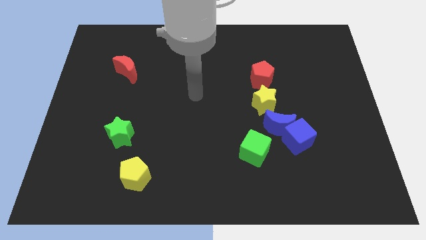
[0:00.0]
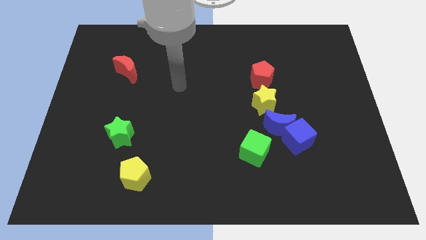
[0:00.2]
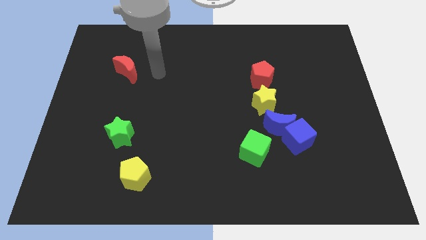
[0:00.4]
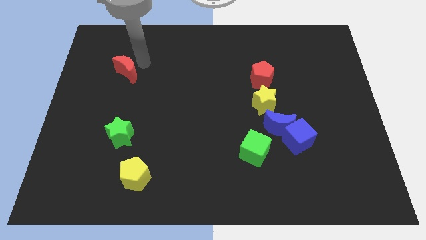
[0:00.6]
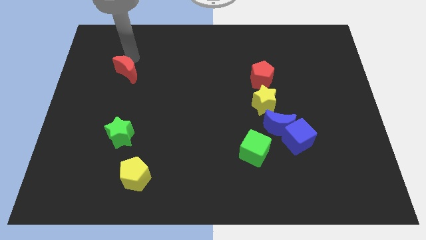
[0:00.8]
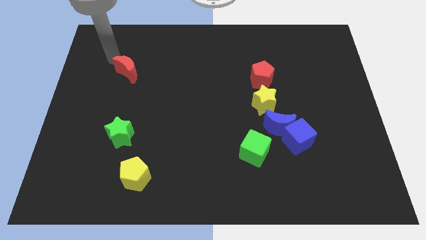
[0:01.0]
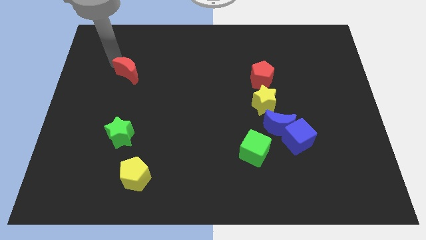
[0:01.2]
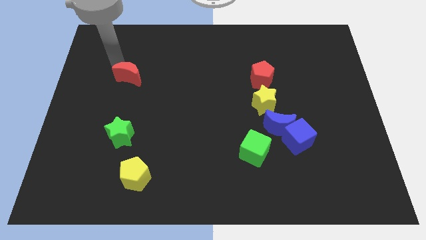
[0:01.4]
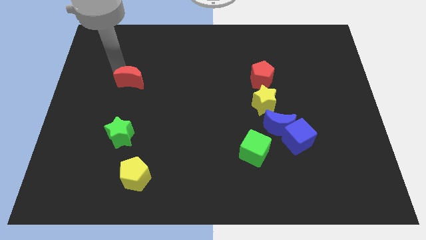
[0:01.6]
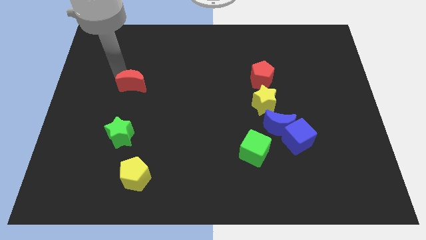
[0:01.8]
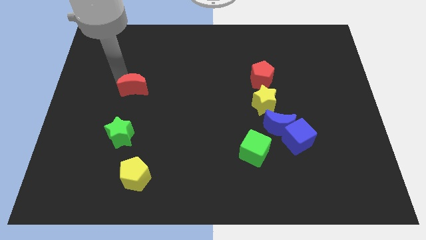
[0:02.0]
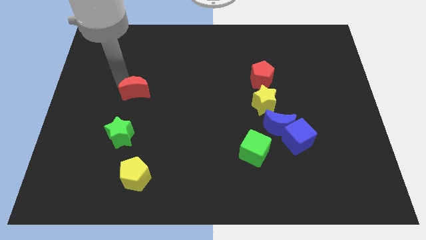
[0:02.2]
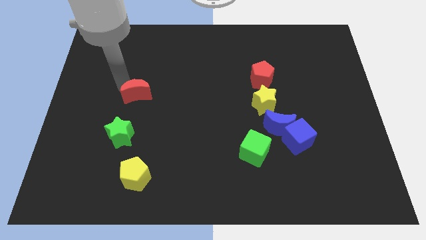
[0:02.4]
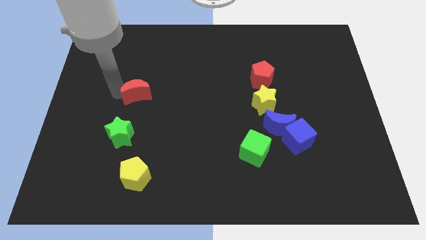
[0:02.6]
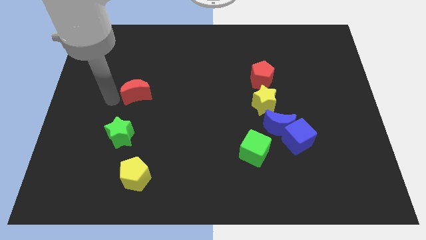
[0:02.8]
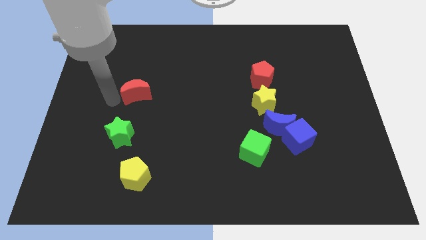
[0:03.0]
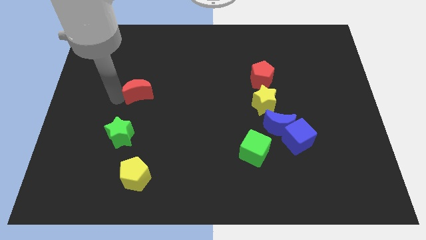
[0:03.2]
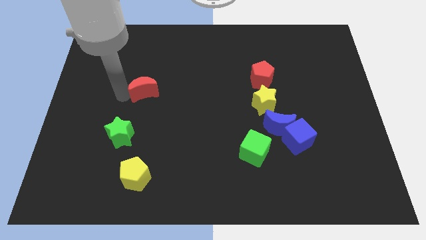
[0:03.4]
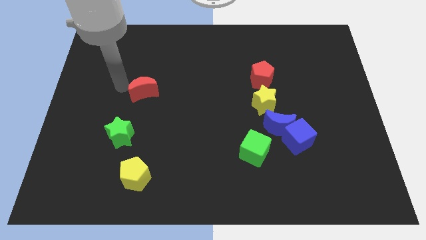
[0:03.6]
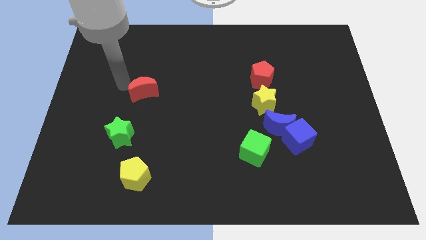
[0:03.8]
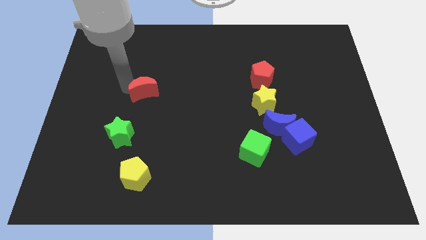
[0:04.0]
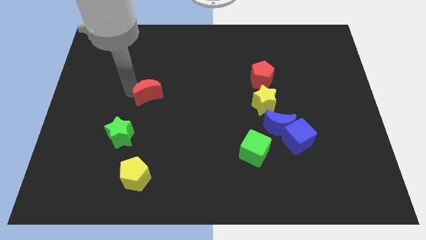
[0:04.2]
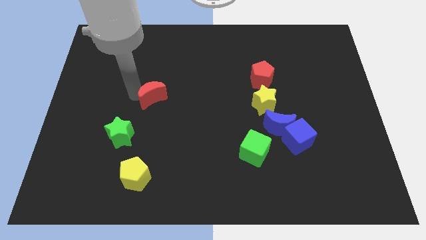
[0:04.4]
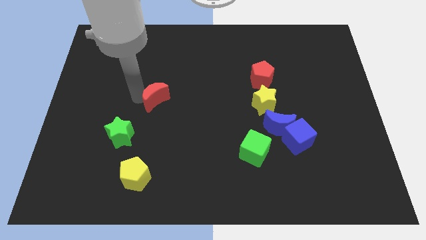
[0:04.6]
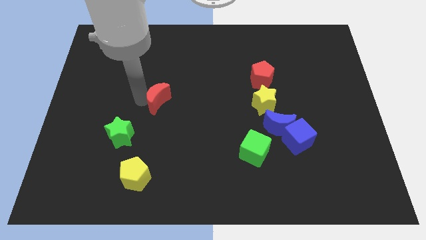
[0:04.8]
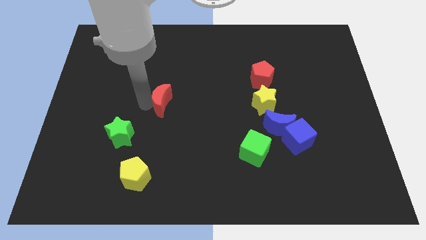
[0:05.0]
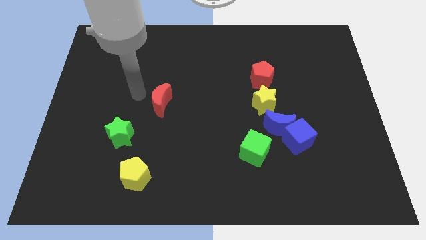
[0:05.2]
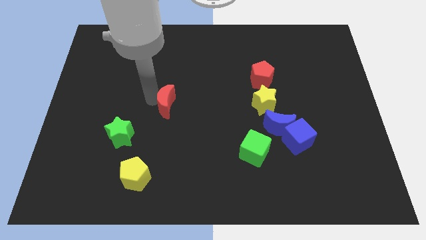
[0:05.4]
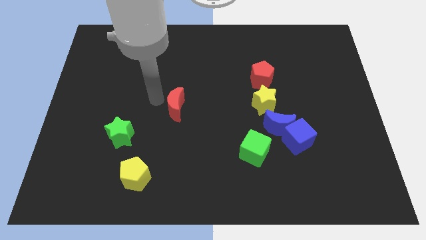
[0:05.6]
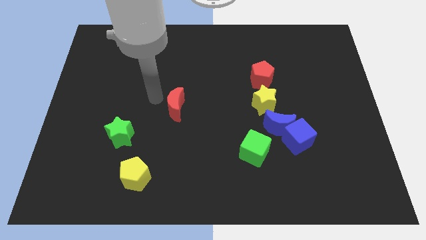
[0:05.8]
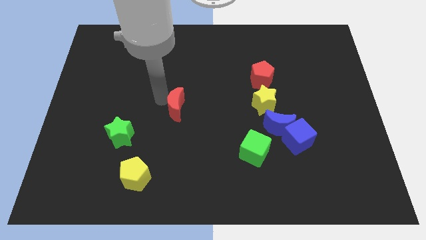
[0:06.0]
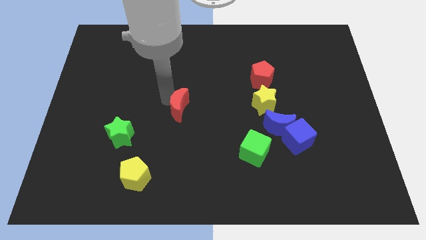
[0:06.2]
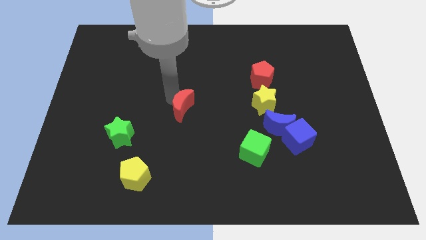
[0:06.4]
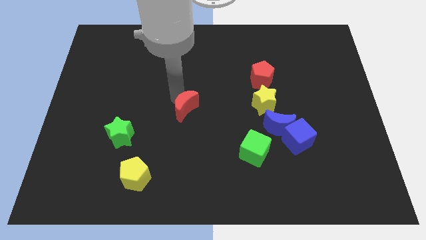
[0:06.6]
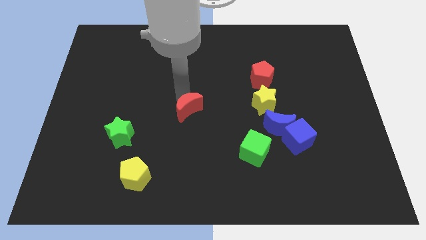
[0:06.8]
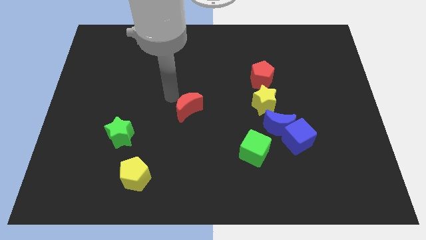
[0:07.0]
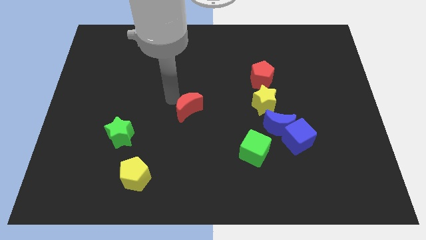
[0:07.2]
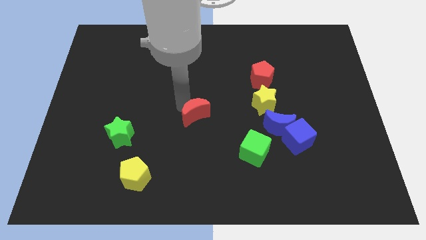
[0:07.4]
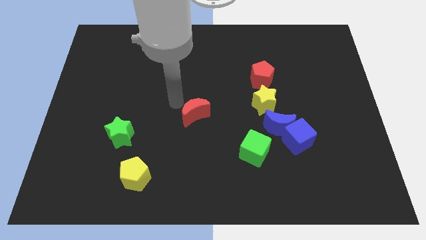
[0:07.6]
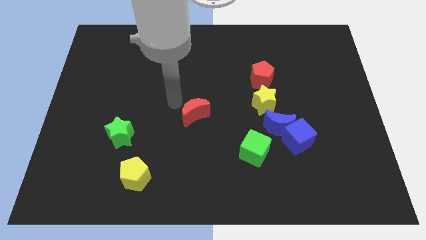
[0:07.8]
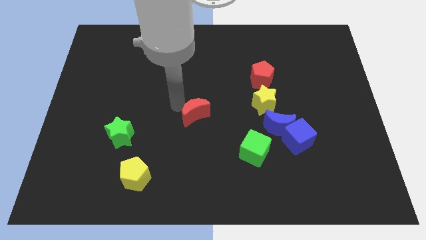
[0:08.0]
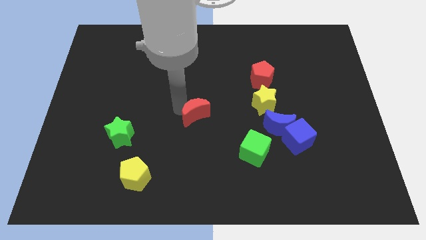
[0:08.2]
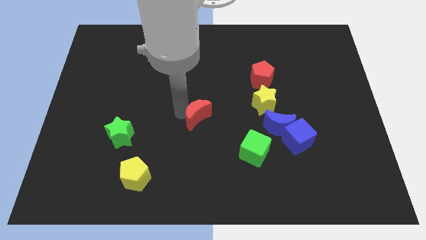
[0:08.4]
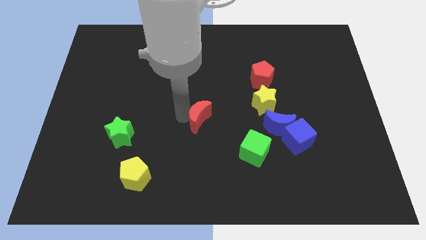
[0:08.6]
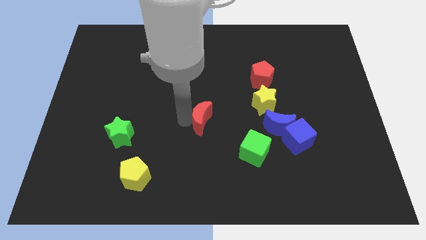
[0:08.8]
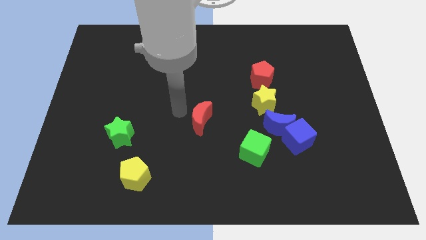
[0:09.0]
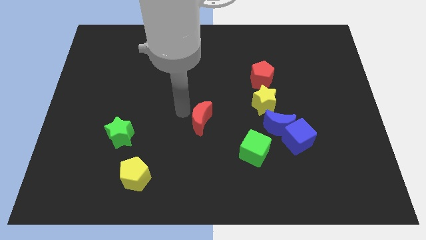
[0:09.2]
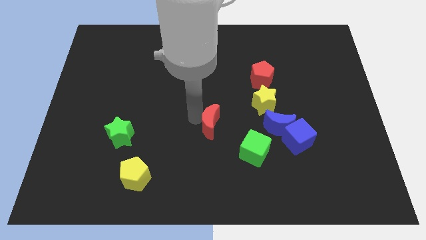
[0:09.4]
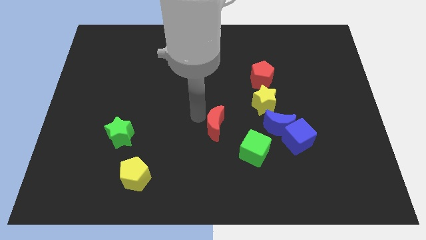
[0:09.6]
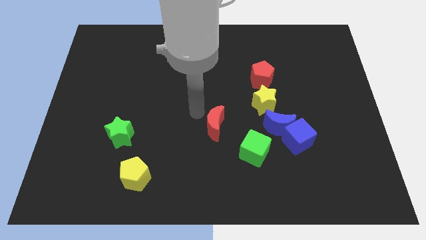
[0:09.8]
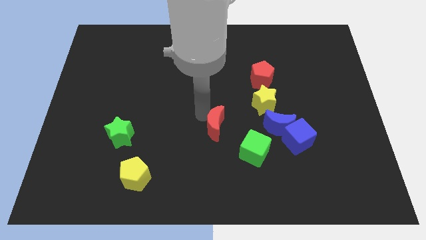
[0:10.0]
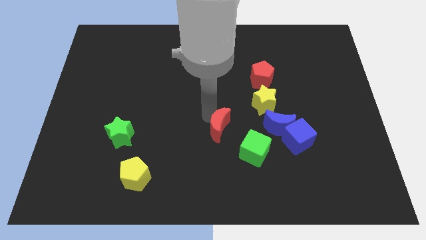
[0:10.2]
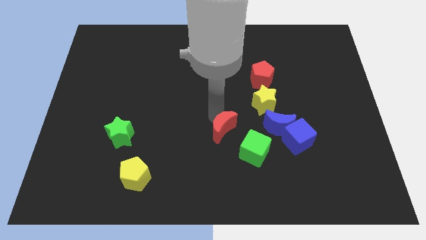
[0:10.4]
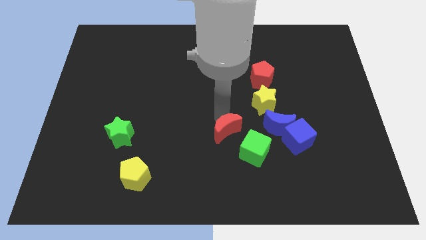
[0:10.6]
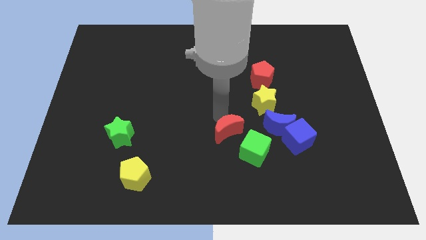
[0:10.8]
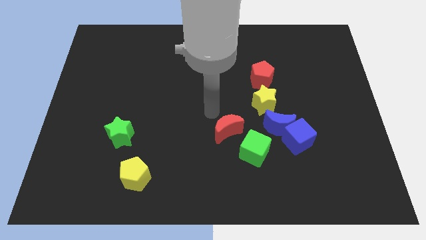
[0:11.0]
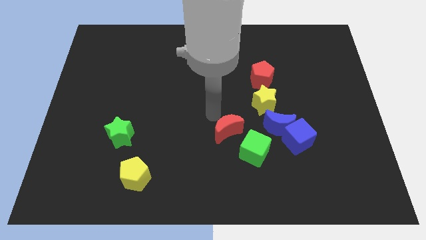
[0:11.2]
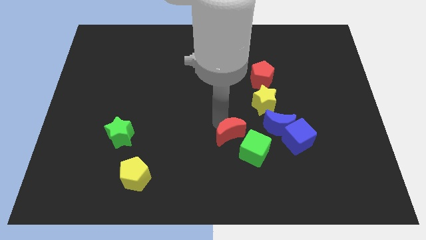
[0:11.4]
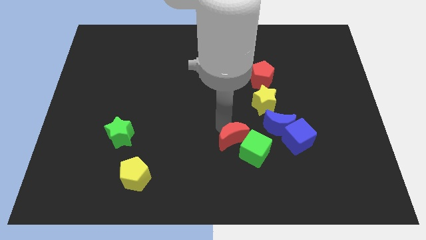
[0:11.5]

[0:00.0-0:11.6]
push the red moon close to the green cube

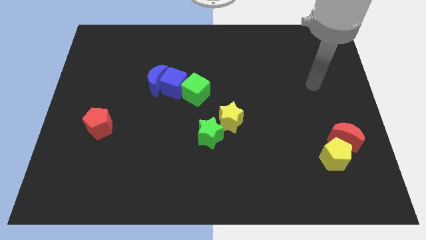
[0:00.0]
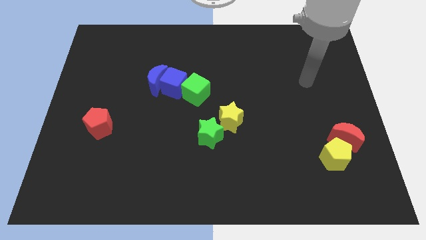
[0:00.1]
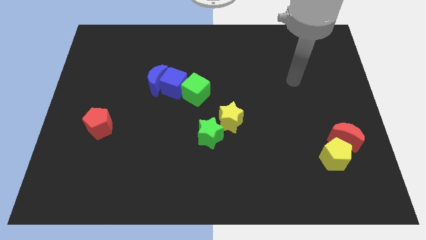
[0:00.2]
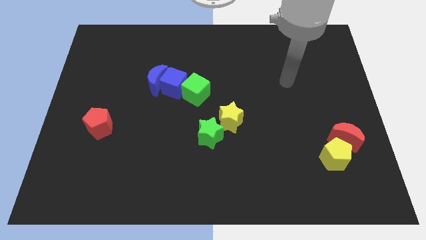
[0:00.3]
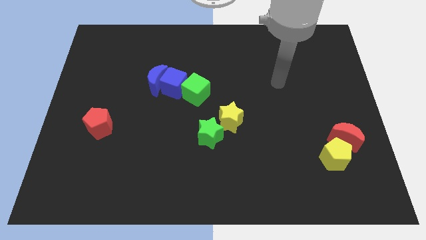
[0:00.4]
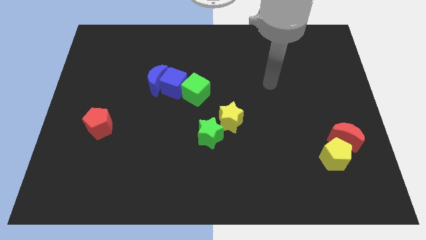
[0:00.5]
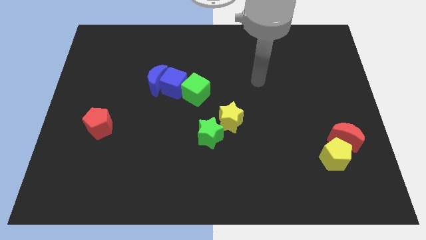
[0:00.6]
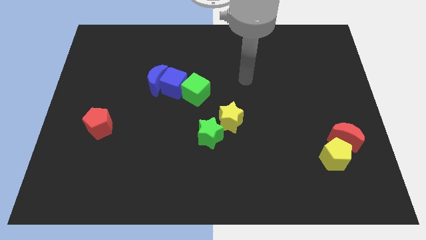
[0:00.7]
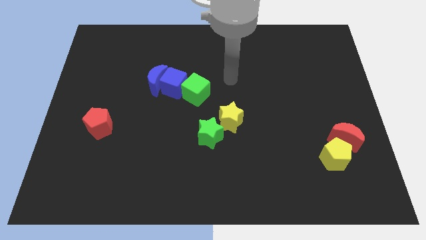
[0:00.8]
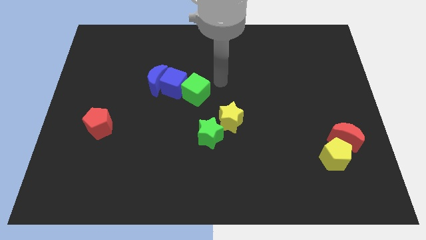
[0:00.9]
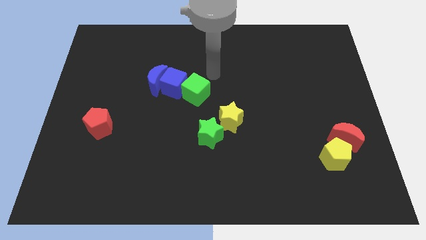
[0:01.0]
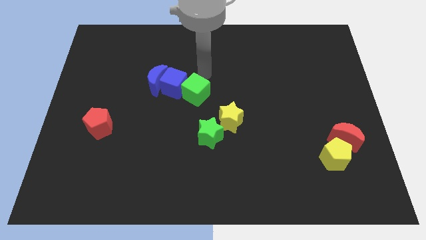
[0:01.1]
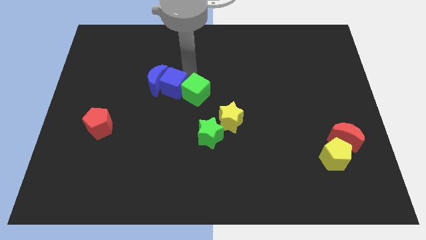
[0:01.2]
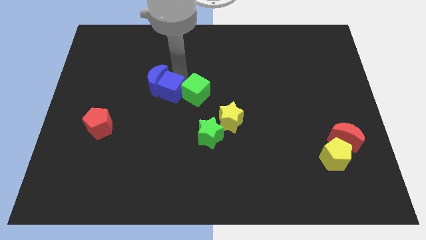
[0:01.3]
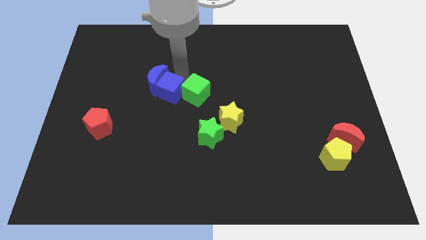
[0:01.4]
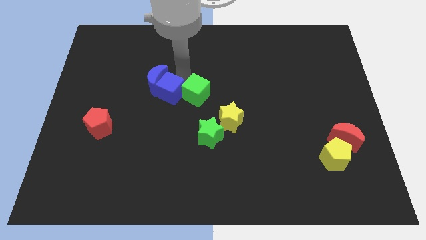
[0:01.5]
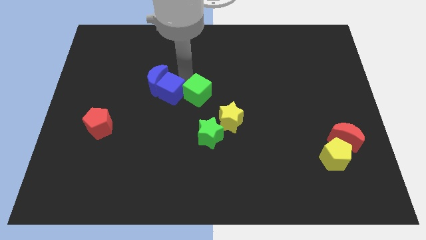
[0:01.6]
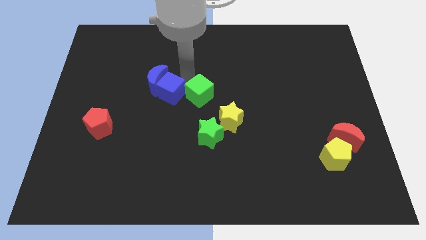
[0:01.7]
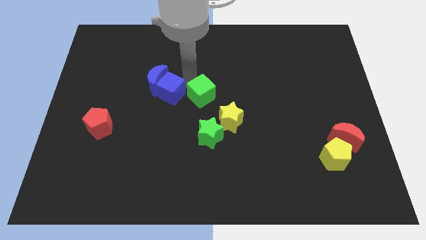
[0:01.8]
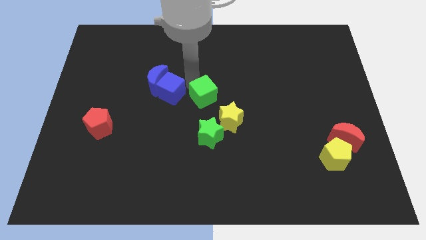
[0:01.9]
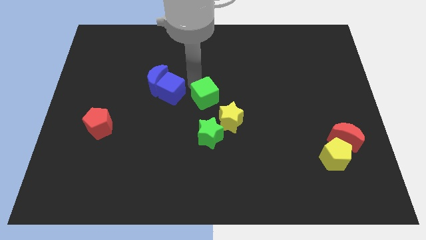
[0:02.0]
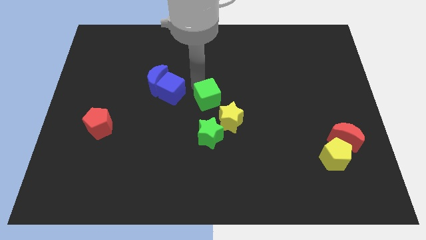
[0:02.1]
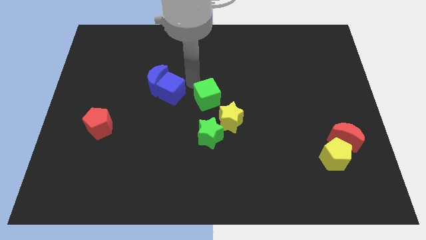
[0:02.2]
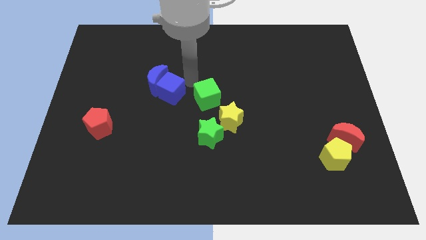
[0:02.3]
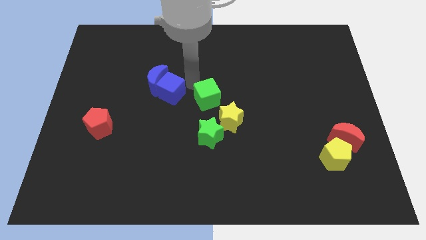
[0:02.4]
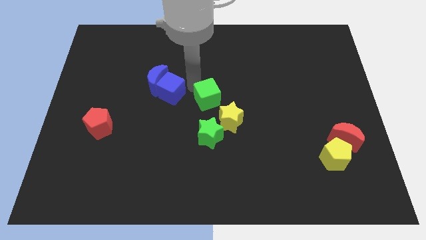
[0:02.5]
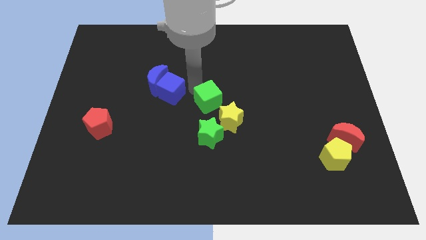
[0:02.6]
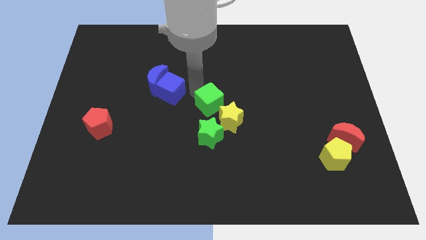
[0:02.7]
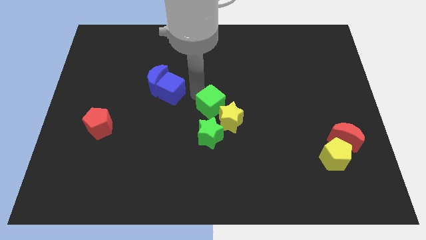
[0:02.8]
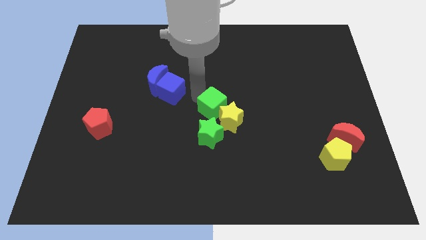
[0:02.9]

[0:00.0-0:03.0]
slide the green cube towards the yellow star
